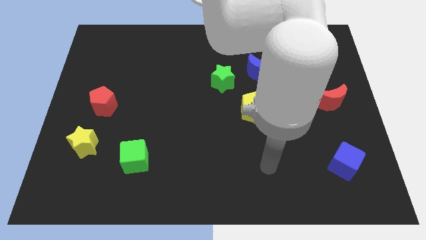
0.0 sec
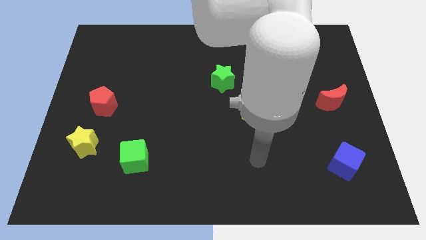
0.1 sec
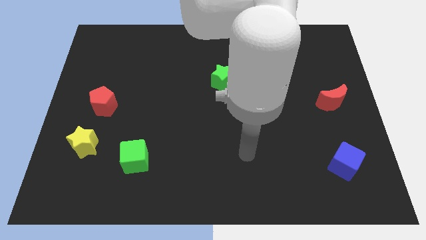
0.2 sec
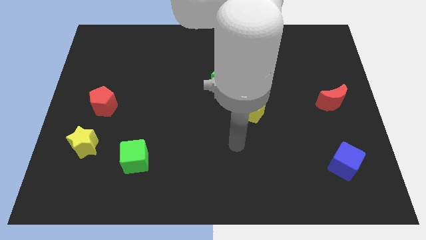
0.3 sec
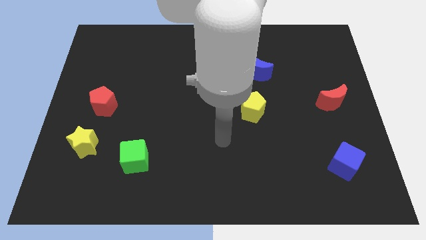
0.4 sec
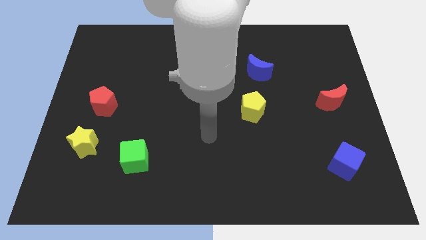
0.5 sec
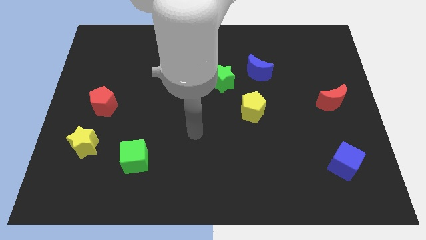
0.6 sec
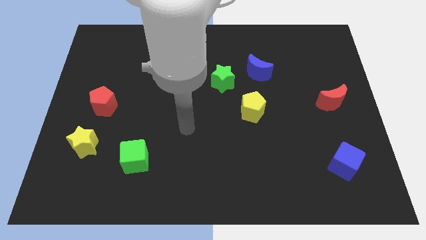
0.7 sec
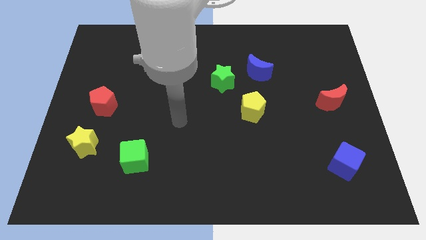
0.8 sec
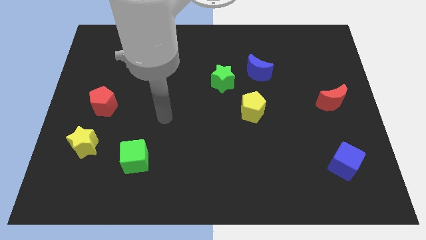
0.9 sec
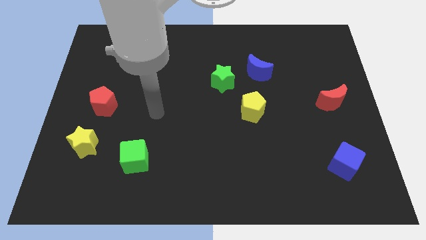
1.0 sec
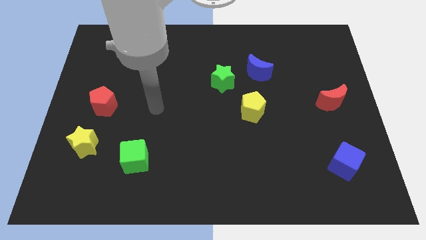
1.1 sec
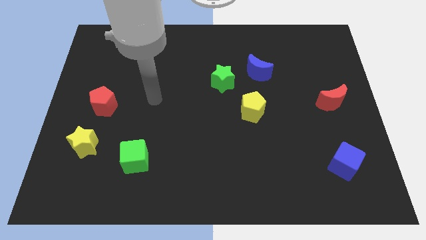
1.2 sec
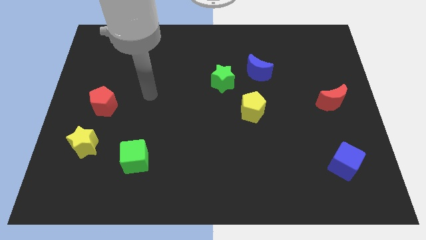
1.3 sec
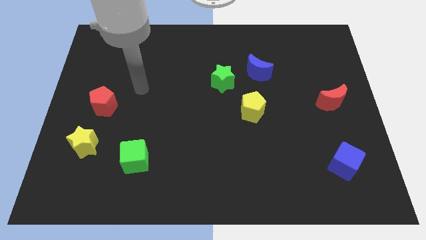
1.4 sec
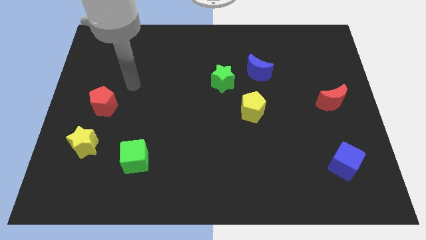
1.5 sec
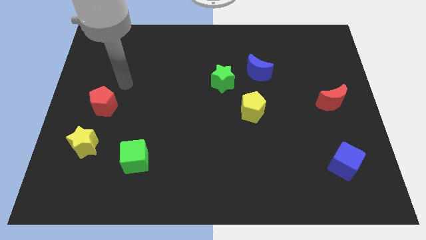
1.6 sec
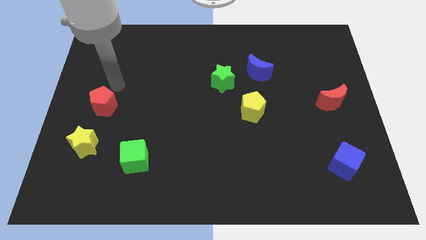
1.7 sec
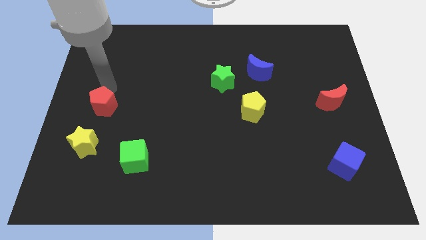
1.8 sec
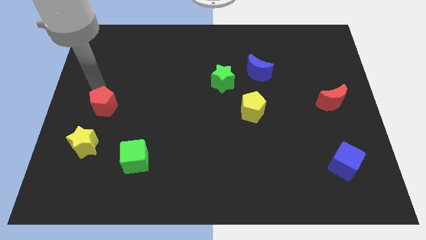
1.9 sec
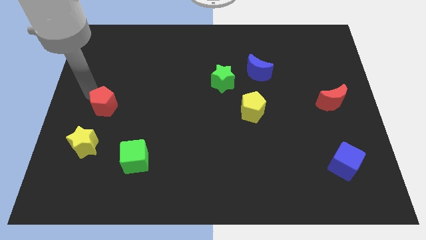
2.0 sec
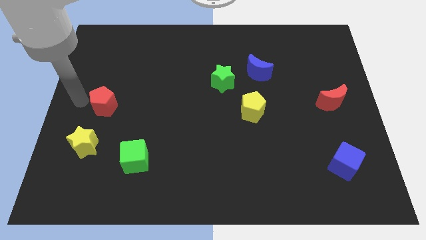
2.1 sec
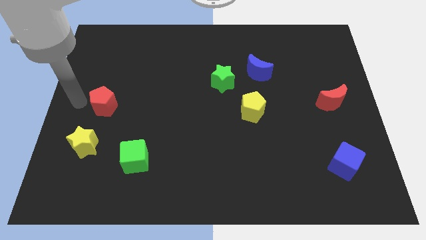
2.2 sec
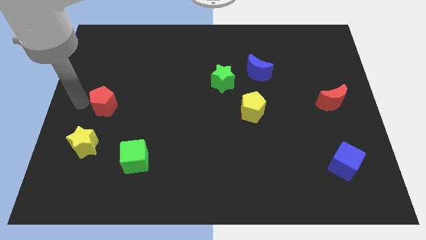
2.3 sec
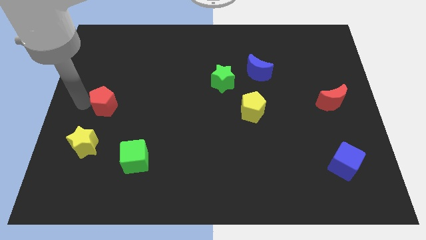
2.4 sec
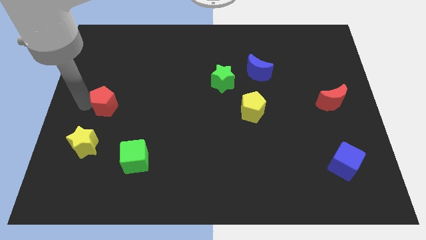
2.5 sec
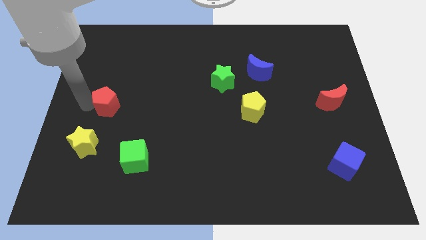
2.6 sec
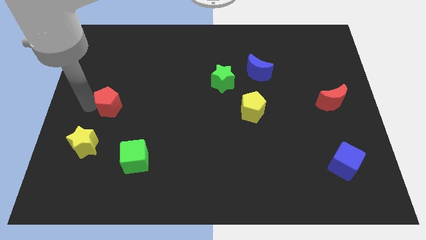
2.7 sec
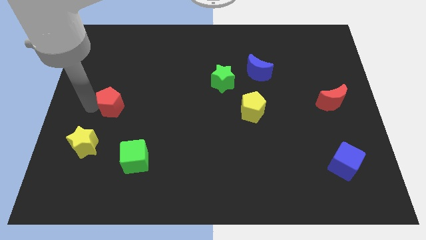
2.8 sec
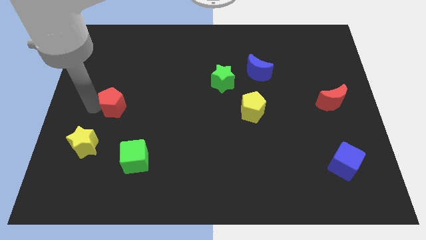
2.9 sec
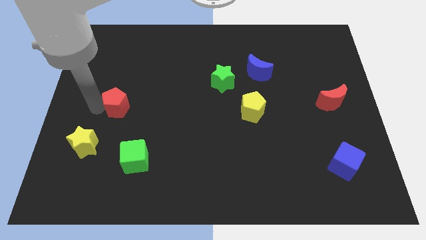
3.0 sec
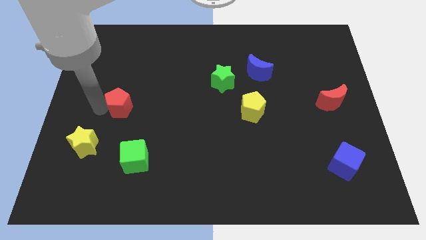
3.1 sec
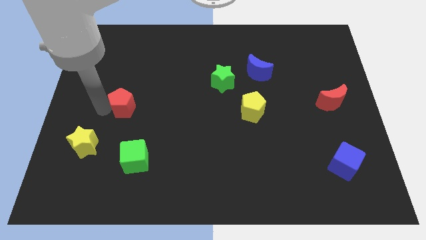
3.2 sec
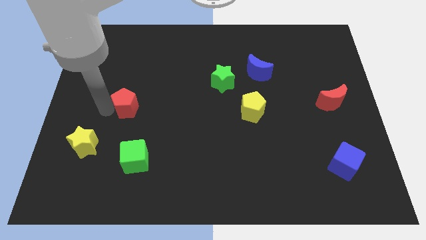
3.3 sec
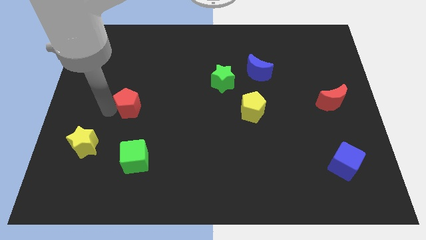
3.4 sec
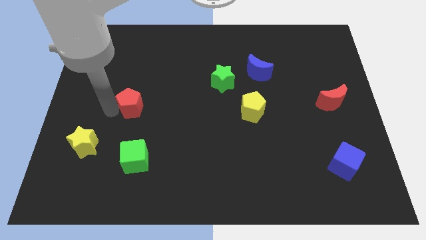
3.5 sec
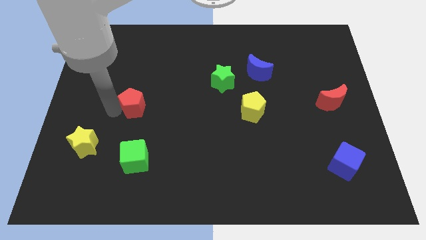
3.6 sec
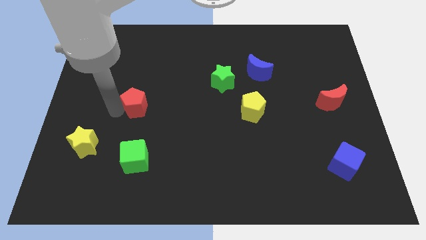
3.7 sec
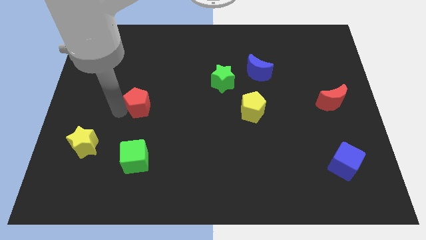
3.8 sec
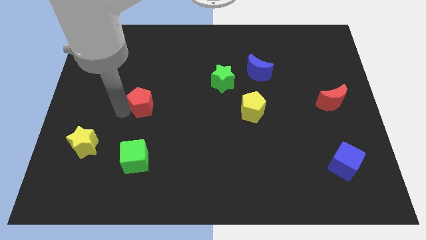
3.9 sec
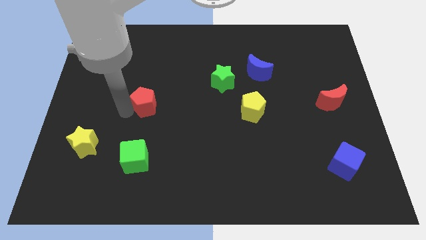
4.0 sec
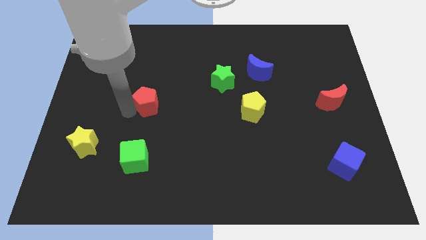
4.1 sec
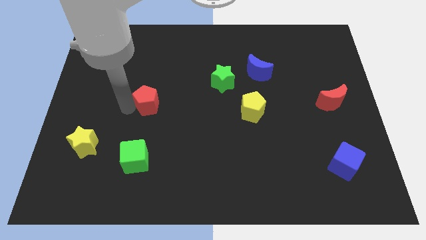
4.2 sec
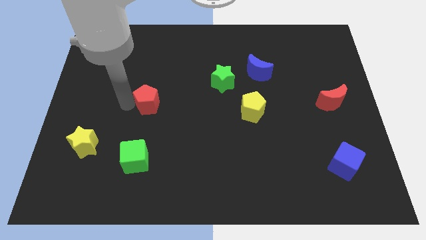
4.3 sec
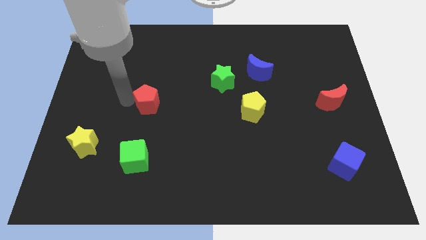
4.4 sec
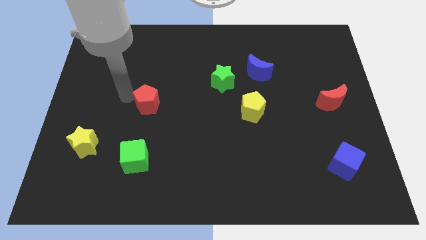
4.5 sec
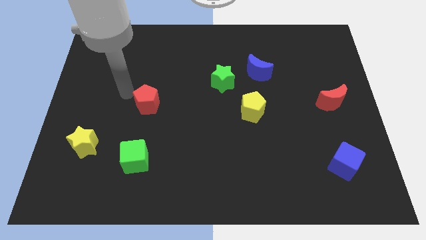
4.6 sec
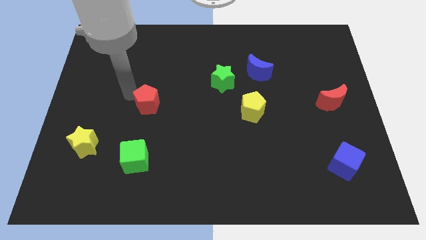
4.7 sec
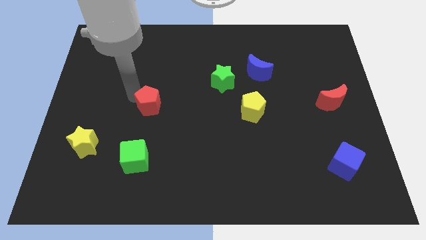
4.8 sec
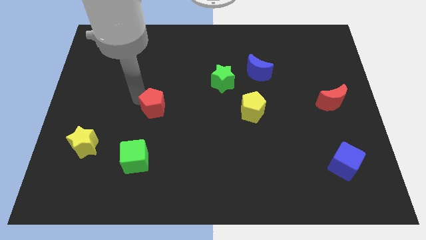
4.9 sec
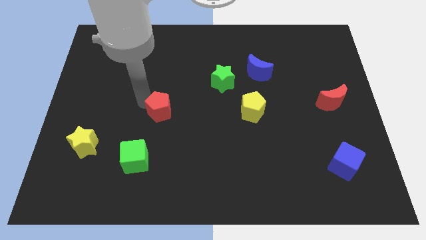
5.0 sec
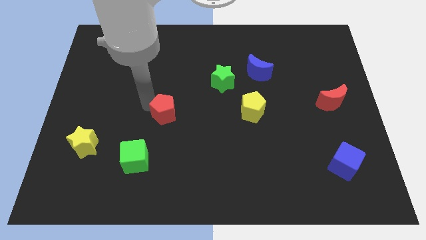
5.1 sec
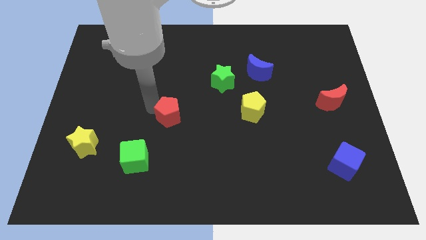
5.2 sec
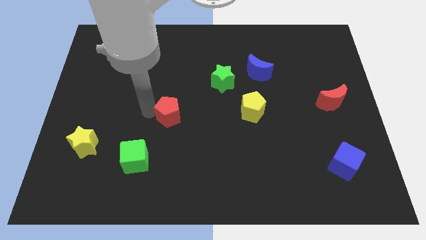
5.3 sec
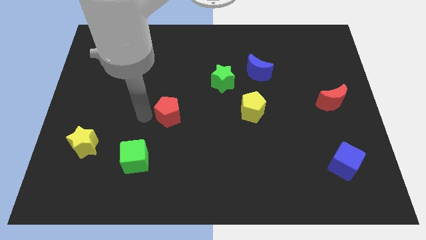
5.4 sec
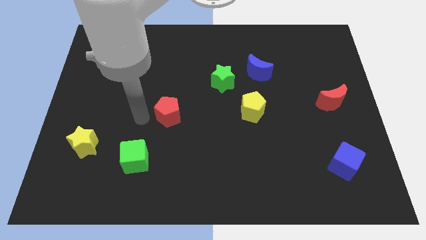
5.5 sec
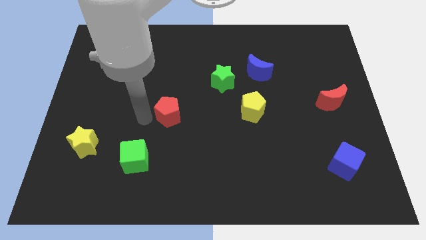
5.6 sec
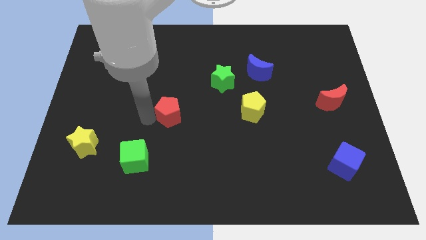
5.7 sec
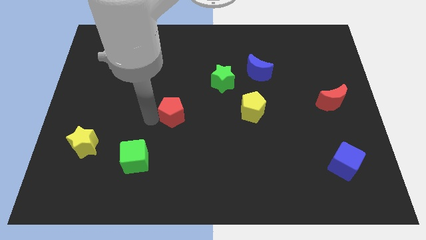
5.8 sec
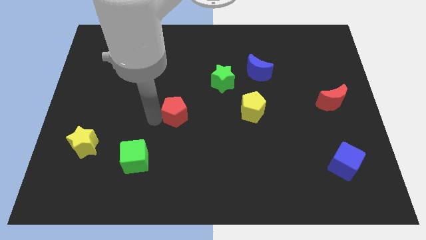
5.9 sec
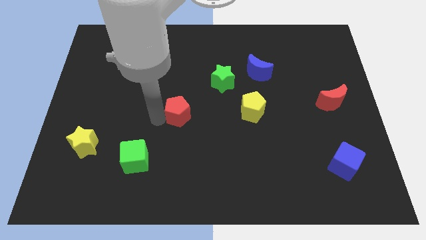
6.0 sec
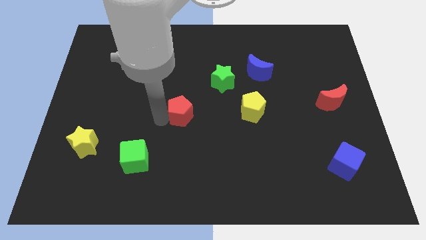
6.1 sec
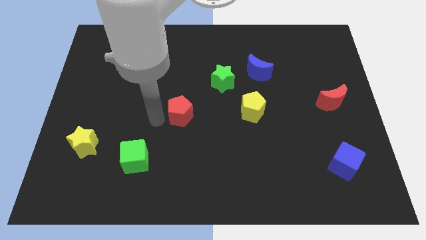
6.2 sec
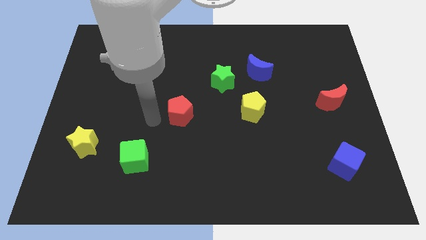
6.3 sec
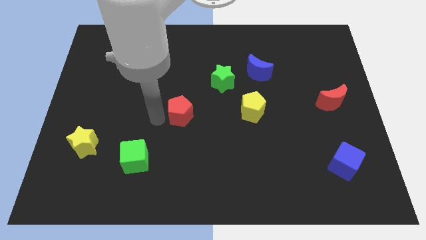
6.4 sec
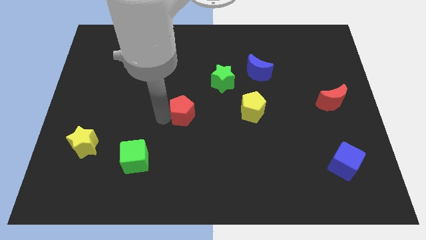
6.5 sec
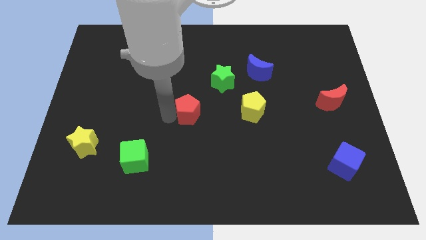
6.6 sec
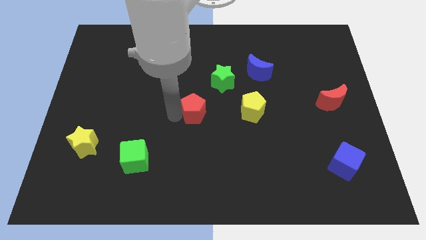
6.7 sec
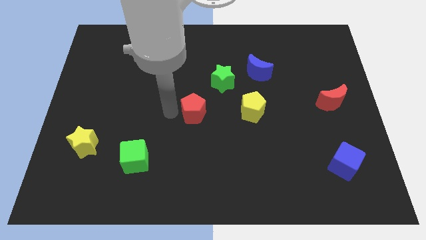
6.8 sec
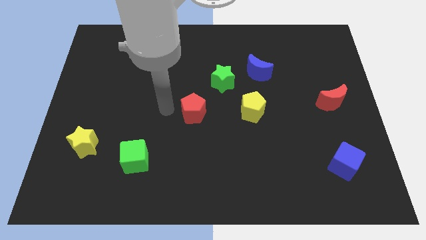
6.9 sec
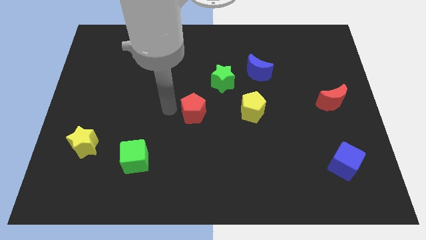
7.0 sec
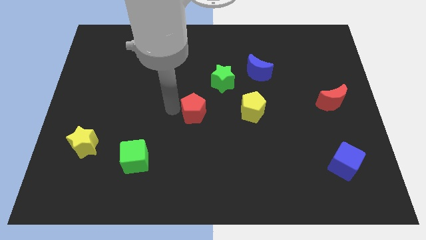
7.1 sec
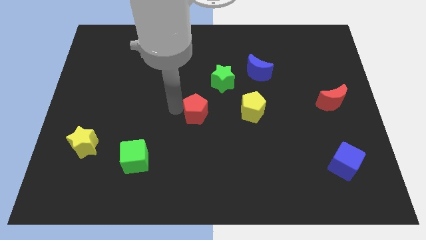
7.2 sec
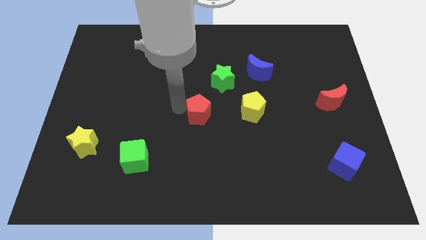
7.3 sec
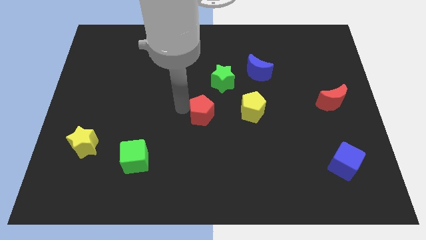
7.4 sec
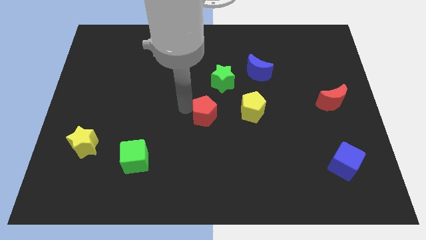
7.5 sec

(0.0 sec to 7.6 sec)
slide the red pentagon to the bottom of the green star
